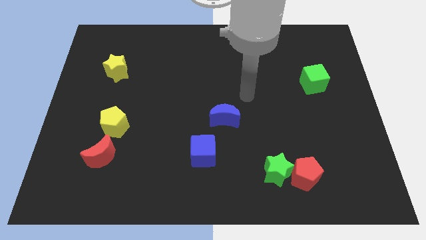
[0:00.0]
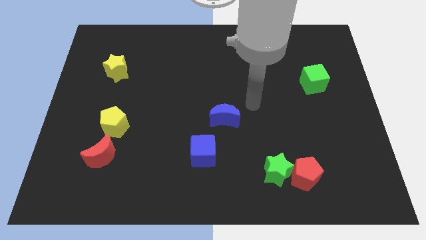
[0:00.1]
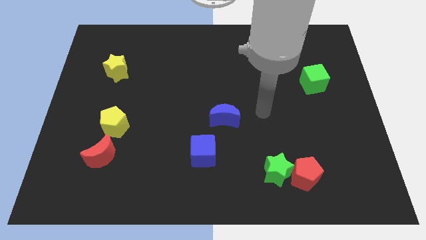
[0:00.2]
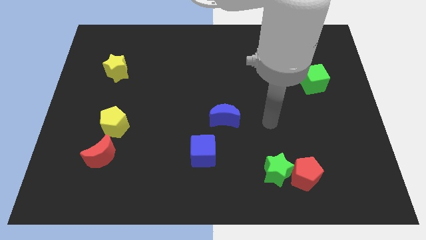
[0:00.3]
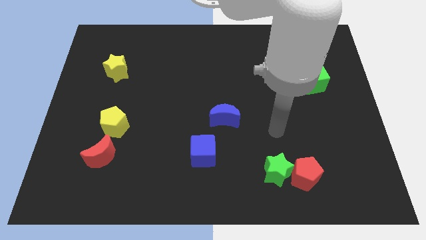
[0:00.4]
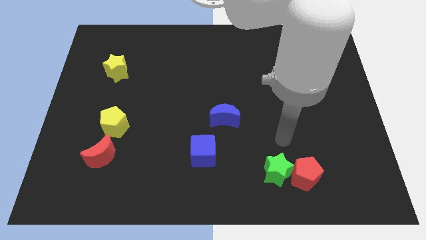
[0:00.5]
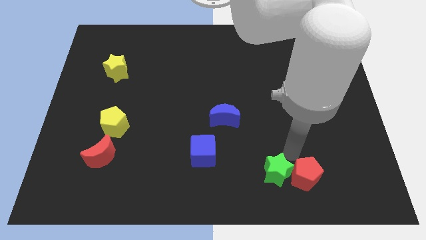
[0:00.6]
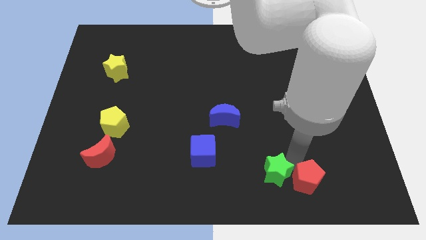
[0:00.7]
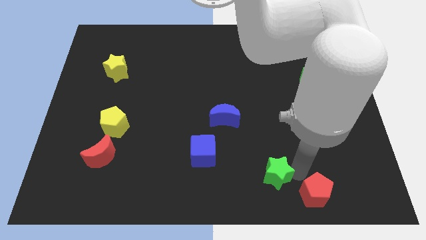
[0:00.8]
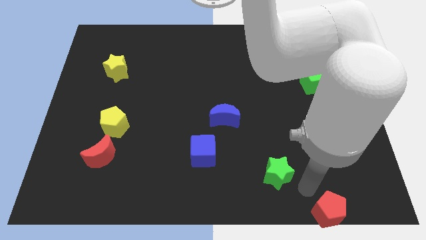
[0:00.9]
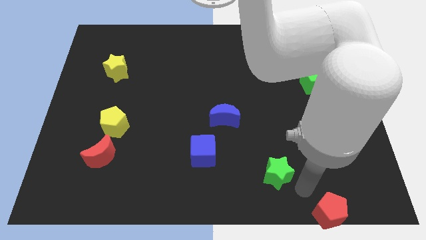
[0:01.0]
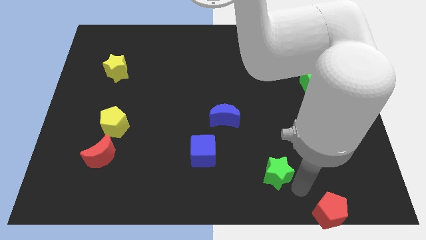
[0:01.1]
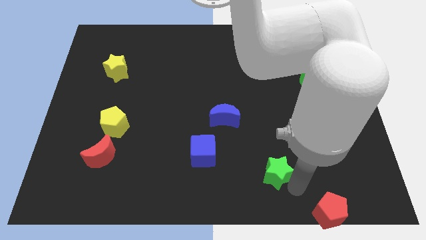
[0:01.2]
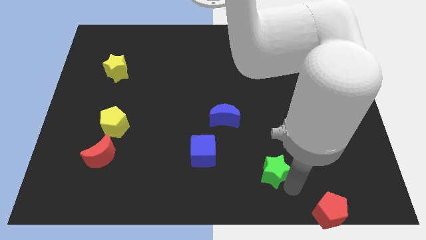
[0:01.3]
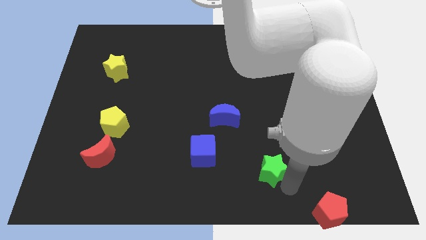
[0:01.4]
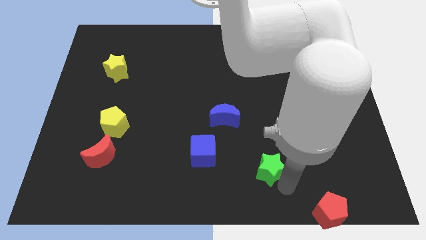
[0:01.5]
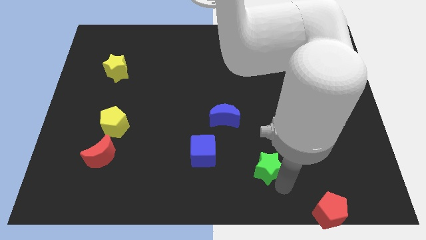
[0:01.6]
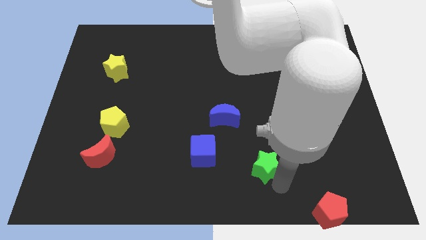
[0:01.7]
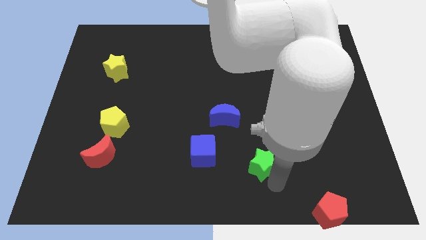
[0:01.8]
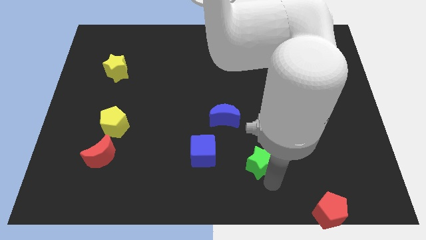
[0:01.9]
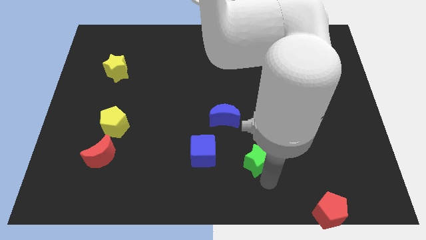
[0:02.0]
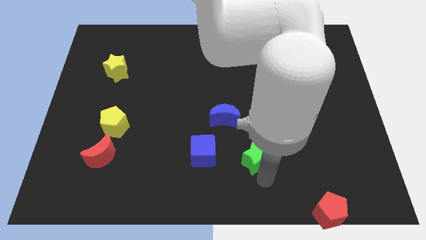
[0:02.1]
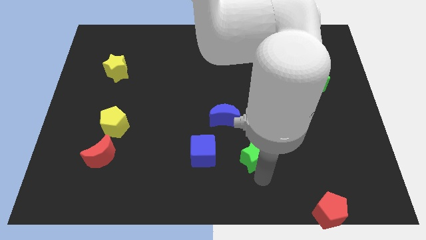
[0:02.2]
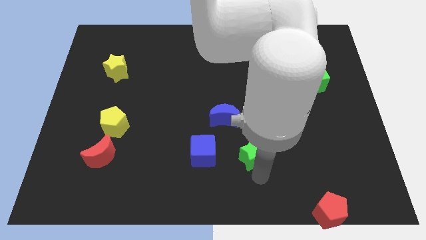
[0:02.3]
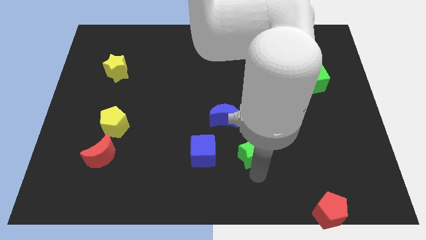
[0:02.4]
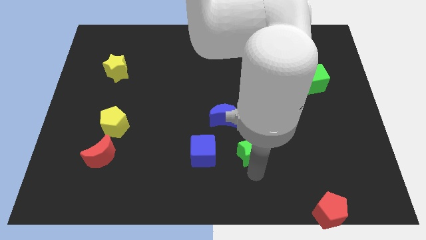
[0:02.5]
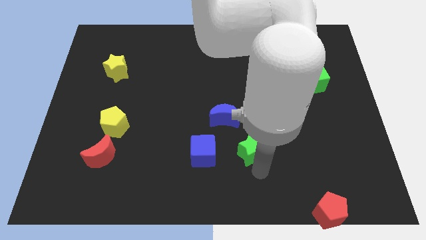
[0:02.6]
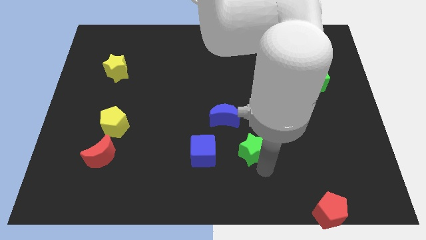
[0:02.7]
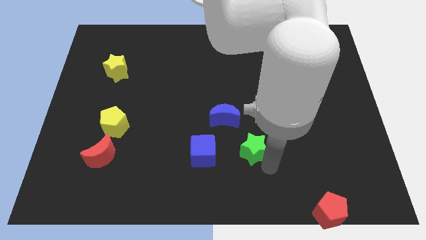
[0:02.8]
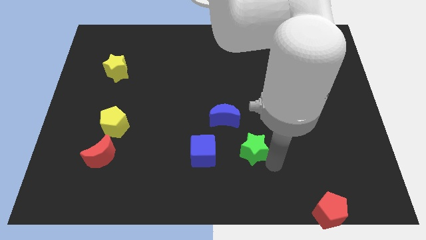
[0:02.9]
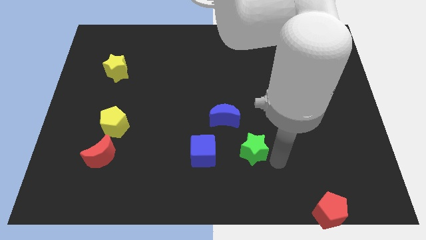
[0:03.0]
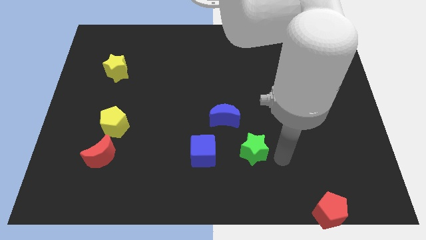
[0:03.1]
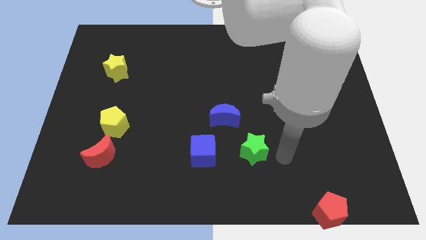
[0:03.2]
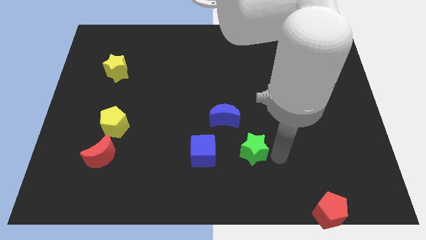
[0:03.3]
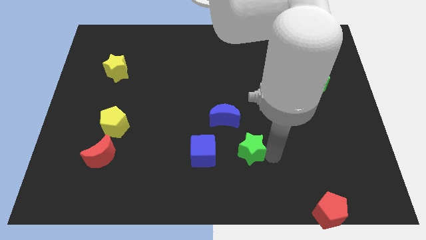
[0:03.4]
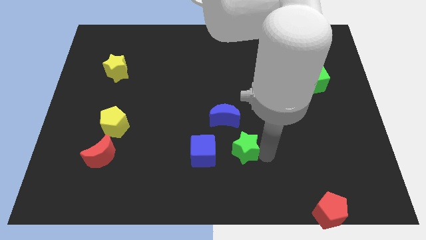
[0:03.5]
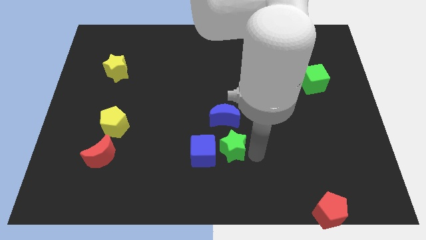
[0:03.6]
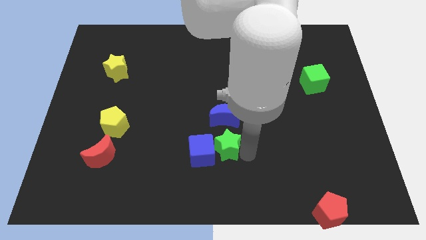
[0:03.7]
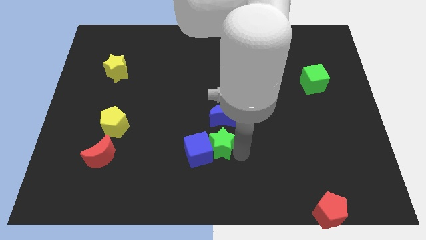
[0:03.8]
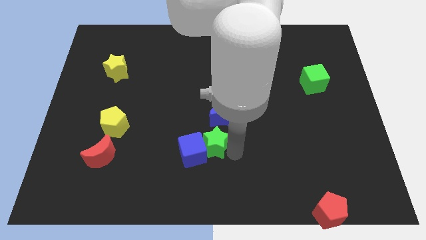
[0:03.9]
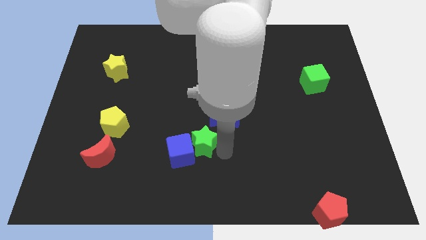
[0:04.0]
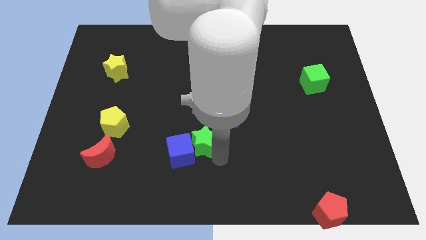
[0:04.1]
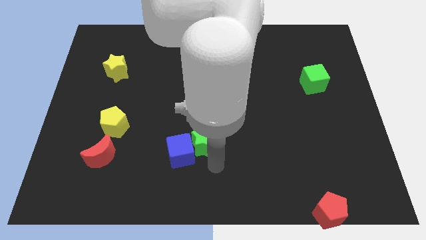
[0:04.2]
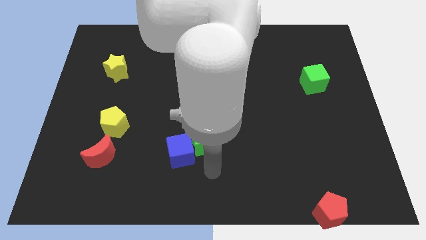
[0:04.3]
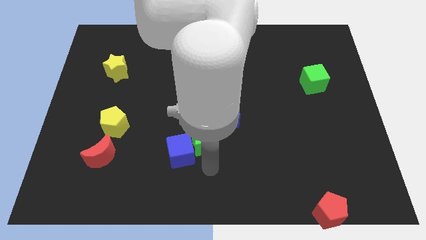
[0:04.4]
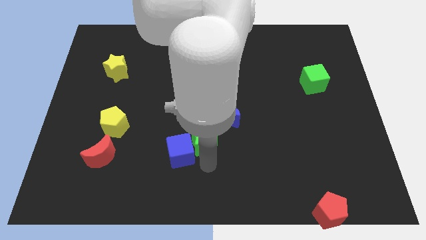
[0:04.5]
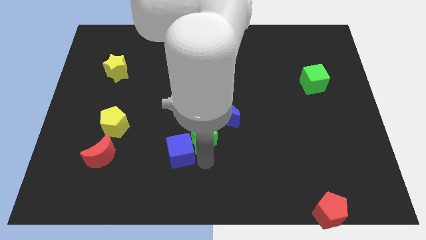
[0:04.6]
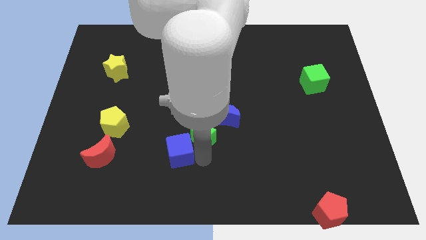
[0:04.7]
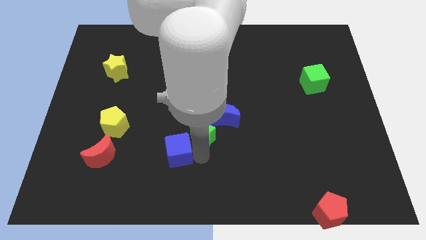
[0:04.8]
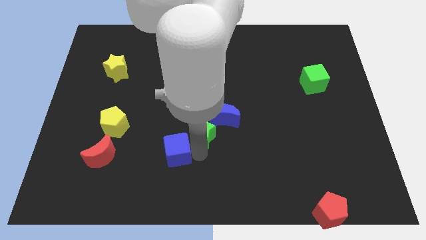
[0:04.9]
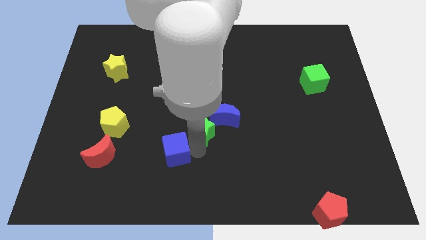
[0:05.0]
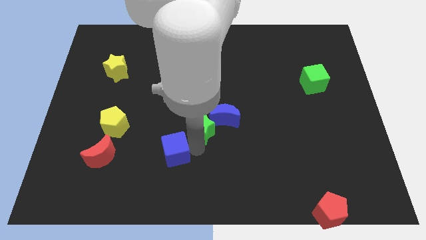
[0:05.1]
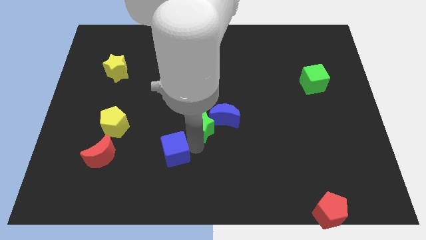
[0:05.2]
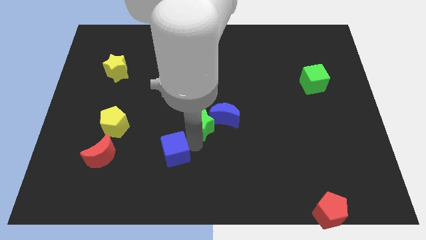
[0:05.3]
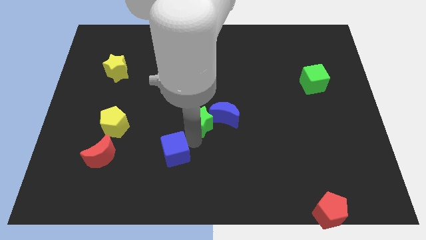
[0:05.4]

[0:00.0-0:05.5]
slide the green star up and to the left

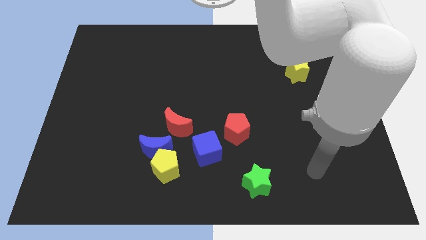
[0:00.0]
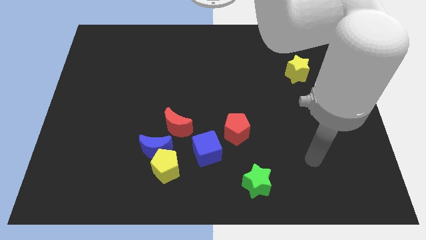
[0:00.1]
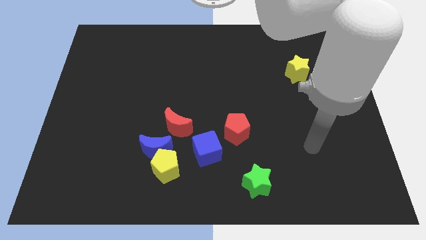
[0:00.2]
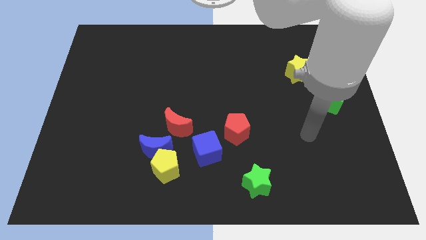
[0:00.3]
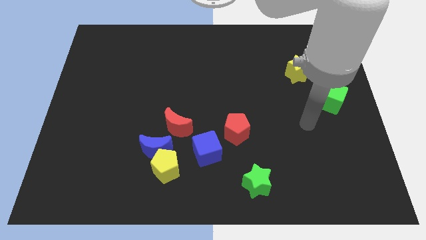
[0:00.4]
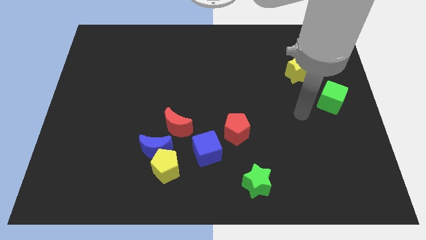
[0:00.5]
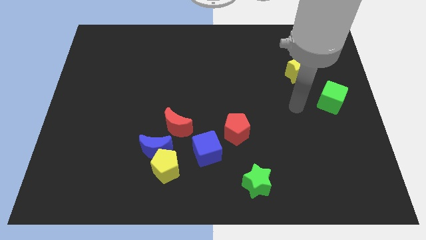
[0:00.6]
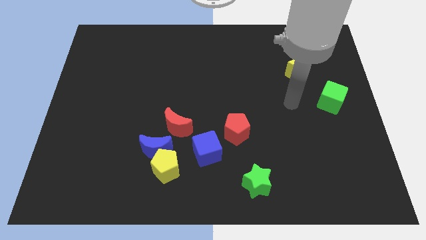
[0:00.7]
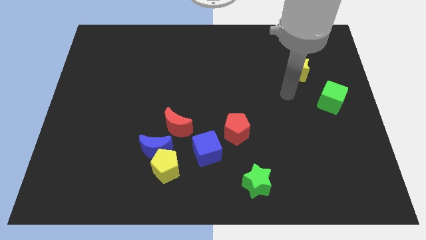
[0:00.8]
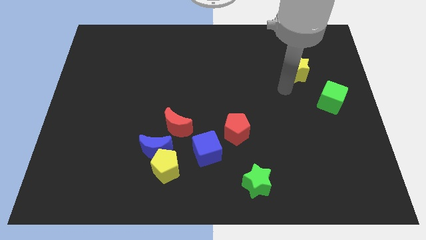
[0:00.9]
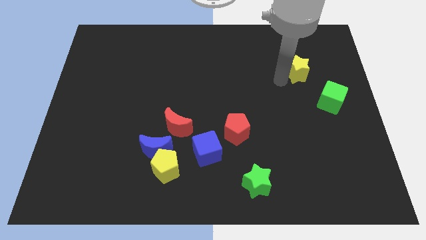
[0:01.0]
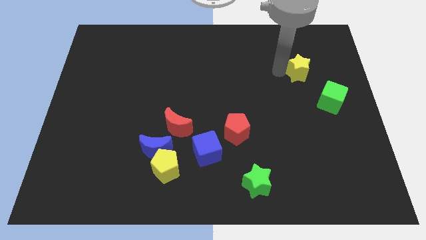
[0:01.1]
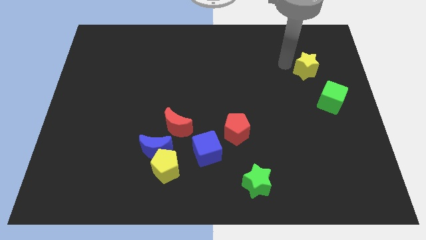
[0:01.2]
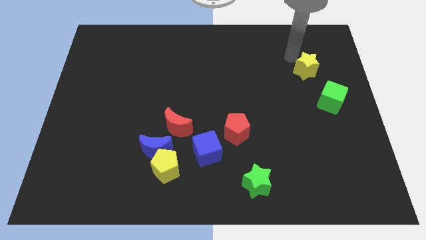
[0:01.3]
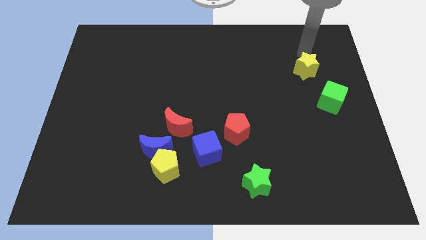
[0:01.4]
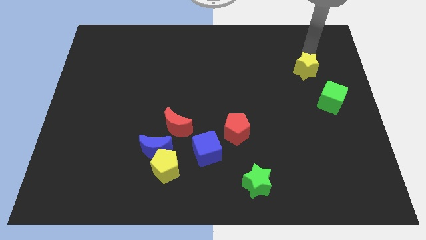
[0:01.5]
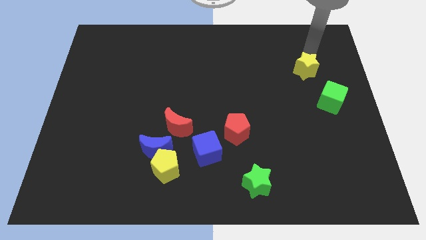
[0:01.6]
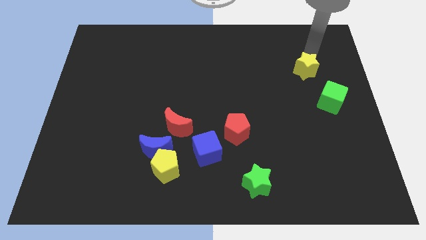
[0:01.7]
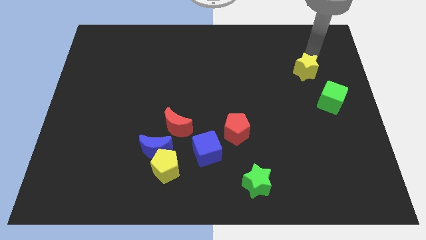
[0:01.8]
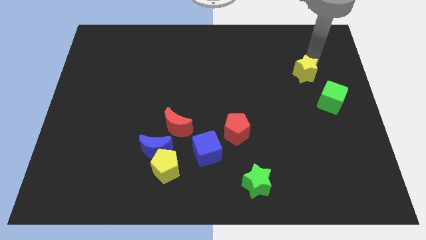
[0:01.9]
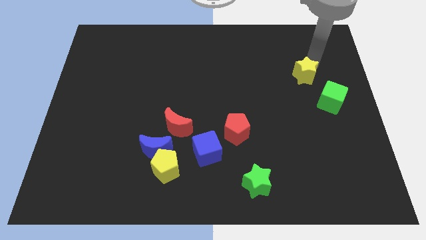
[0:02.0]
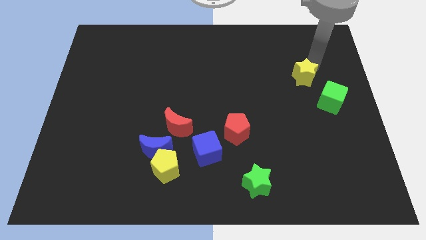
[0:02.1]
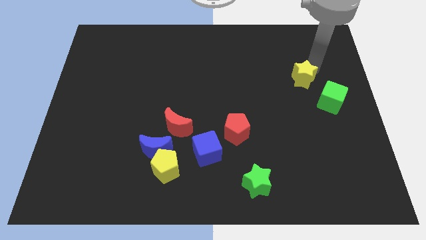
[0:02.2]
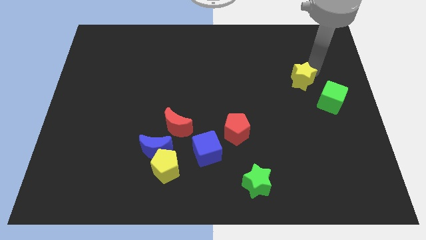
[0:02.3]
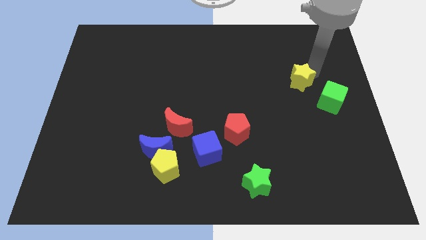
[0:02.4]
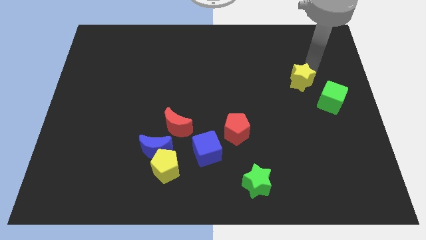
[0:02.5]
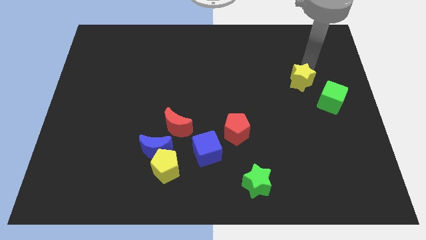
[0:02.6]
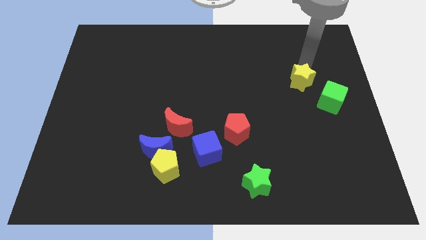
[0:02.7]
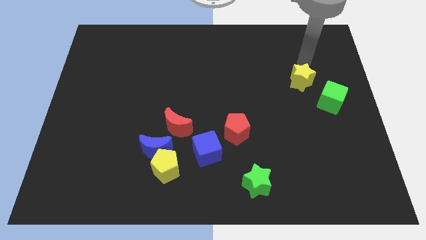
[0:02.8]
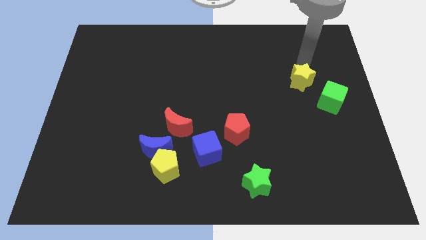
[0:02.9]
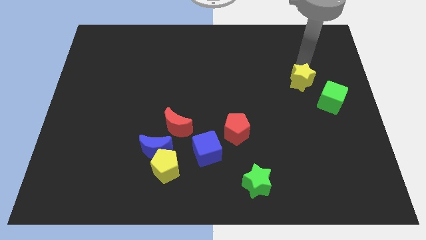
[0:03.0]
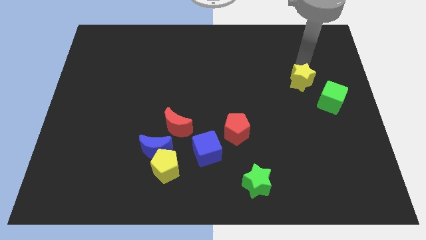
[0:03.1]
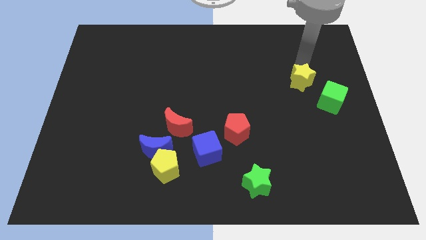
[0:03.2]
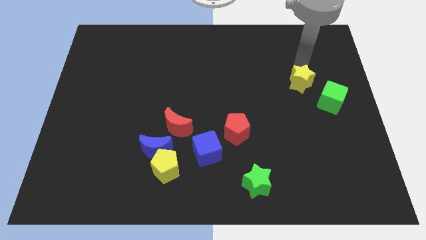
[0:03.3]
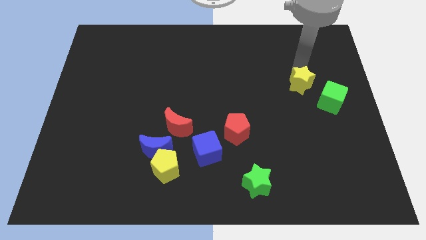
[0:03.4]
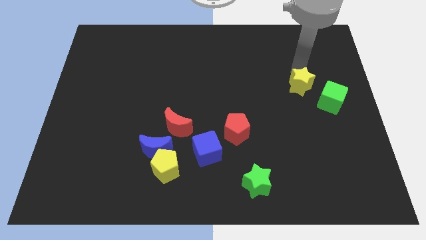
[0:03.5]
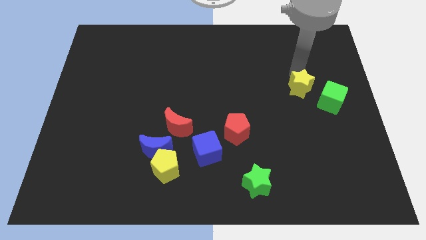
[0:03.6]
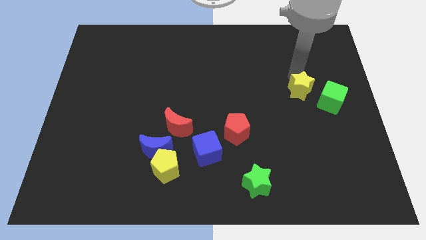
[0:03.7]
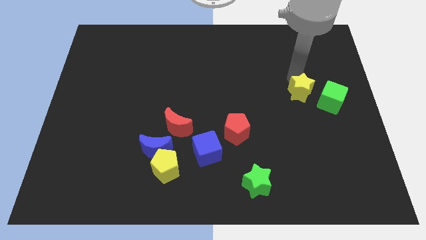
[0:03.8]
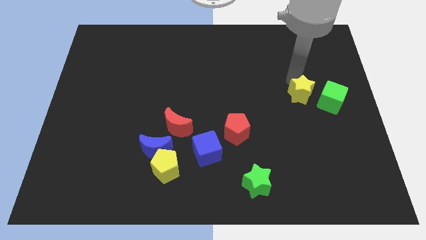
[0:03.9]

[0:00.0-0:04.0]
move the yellow star slightly down
